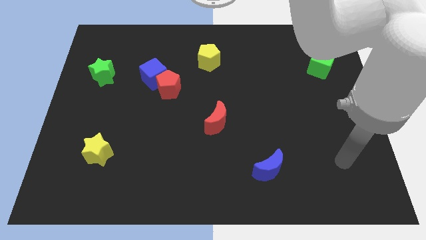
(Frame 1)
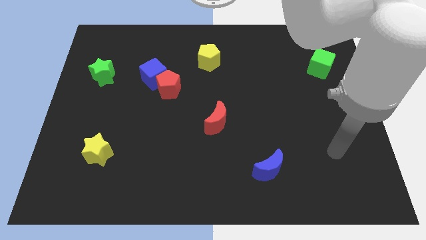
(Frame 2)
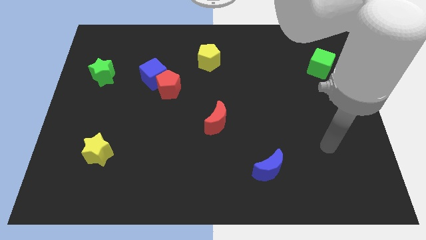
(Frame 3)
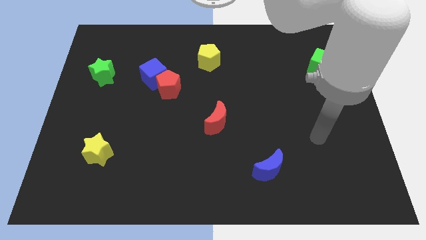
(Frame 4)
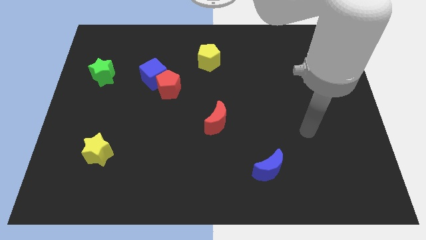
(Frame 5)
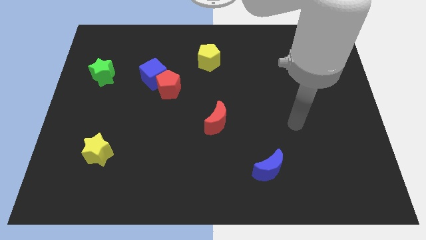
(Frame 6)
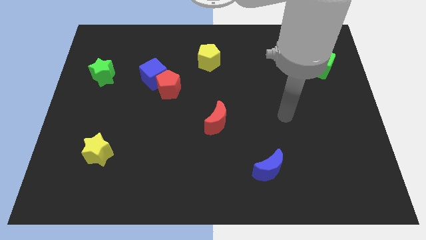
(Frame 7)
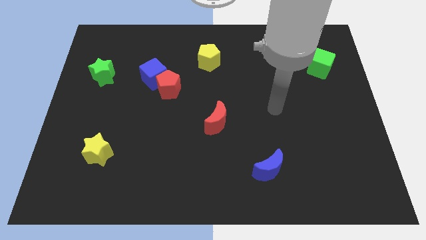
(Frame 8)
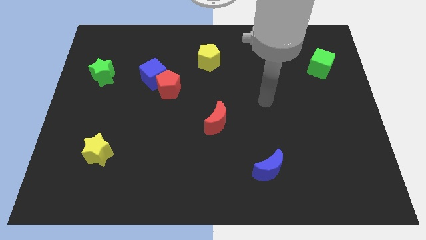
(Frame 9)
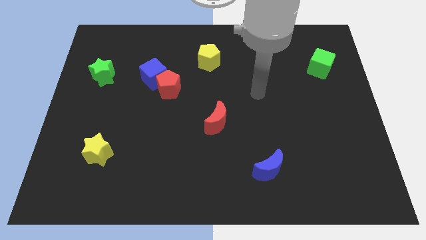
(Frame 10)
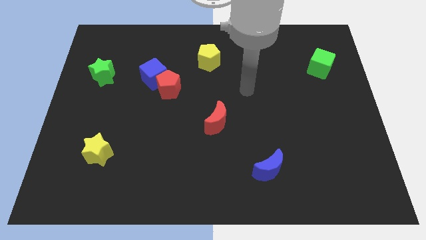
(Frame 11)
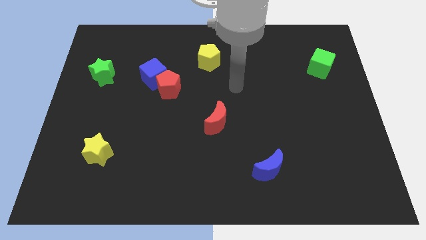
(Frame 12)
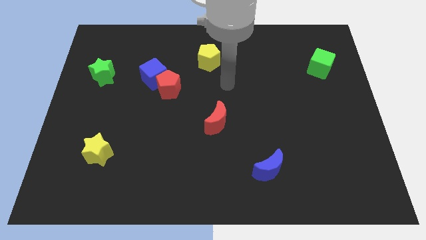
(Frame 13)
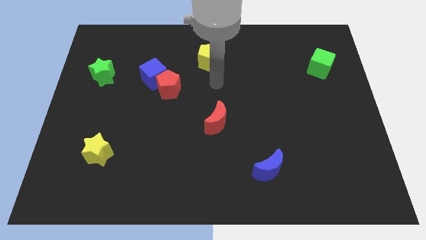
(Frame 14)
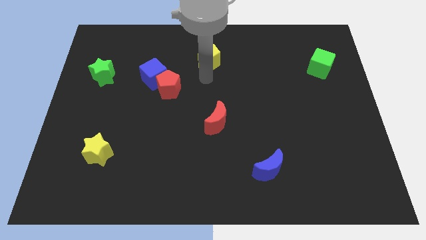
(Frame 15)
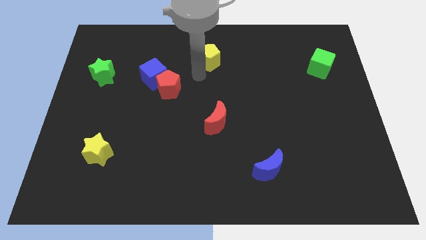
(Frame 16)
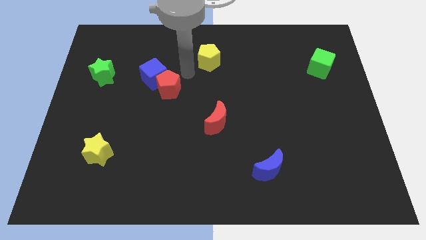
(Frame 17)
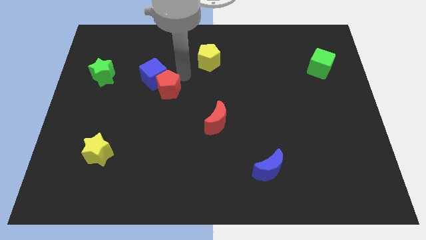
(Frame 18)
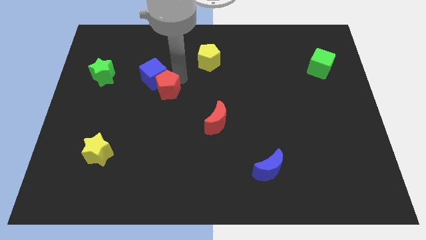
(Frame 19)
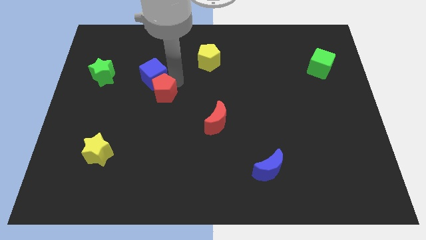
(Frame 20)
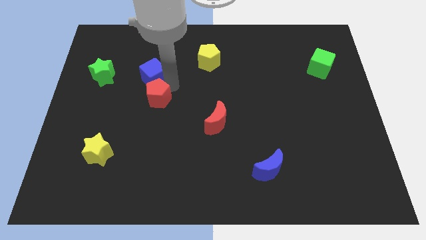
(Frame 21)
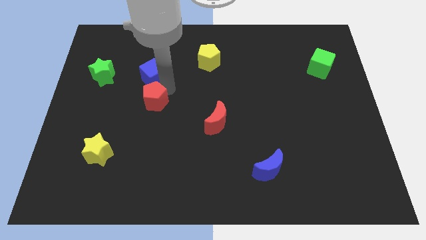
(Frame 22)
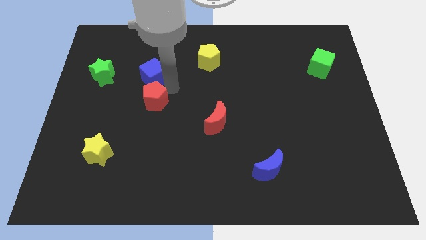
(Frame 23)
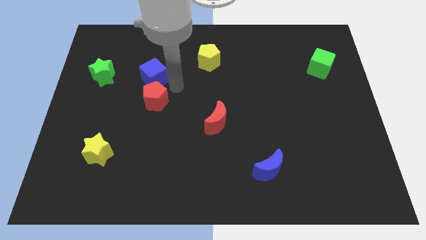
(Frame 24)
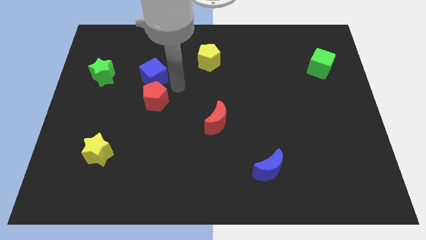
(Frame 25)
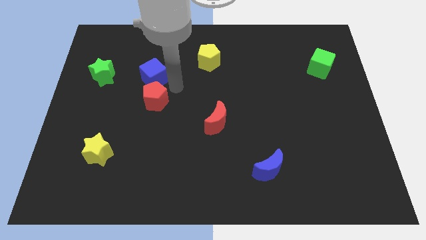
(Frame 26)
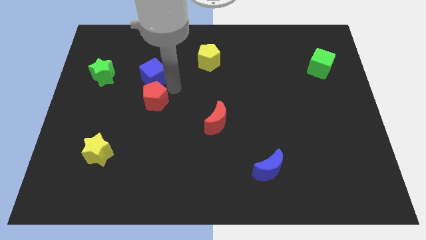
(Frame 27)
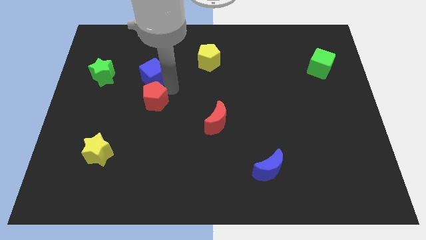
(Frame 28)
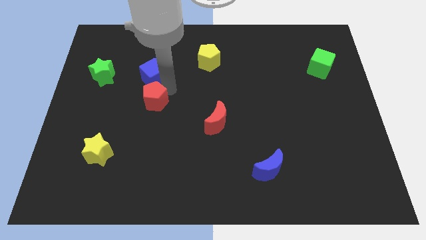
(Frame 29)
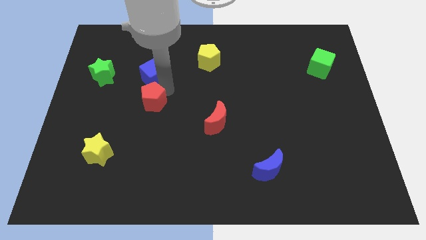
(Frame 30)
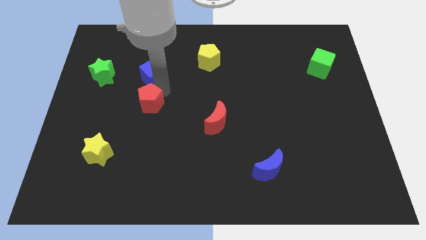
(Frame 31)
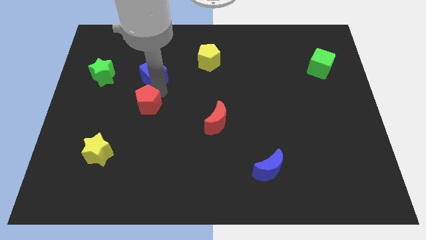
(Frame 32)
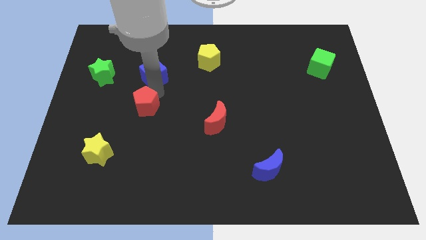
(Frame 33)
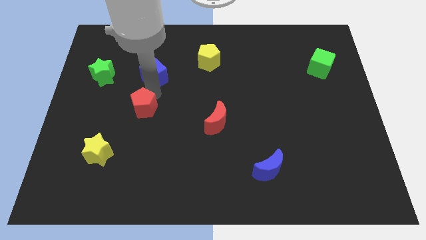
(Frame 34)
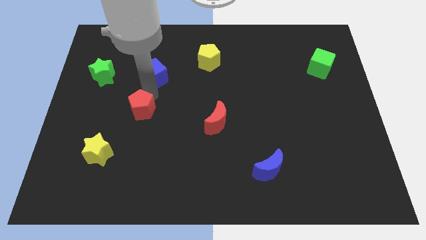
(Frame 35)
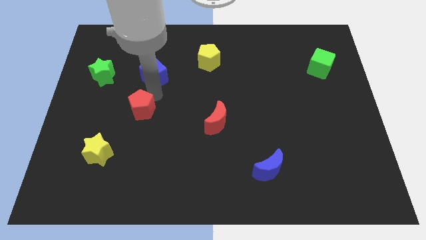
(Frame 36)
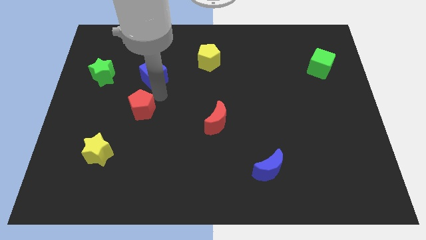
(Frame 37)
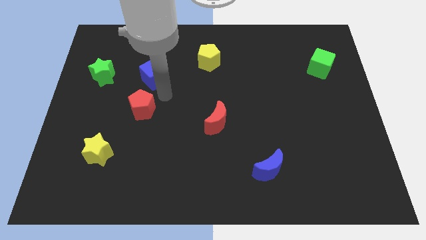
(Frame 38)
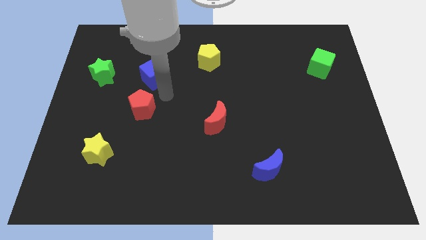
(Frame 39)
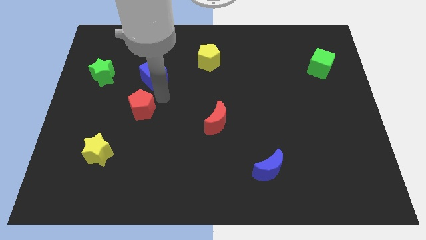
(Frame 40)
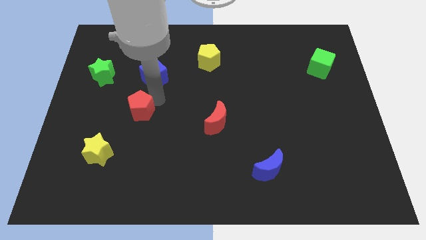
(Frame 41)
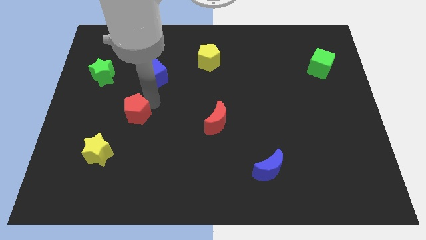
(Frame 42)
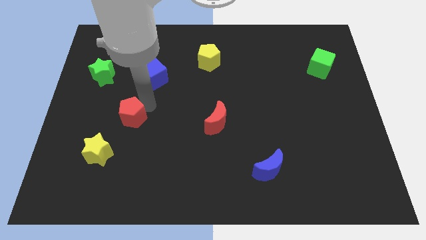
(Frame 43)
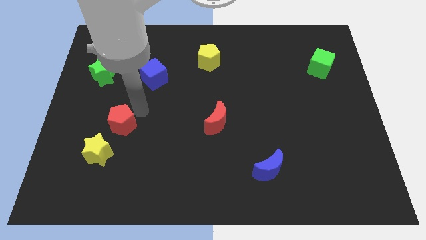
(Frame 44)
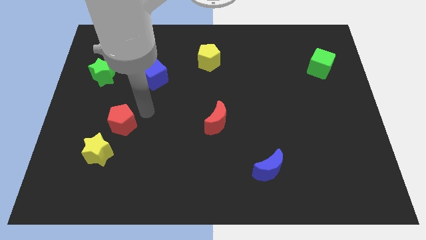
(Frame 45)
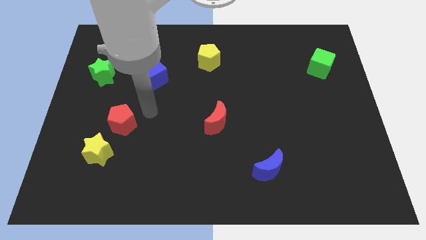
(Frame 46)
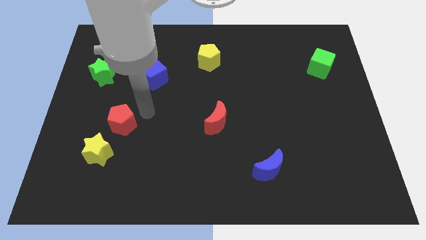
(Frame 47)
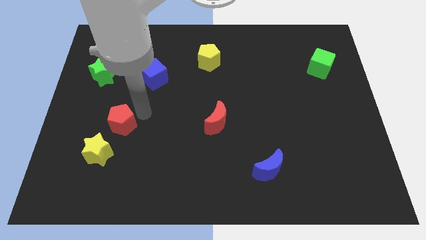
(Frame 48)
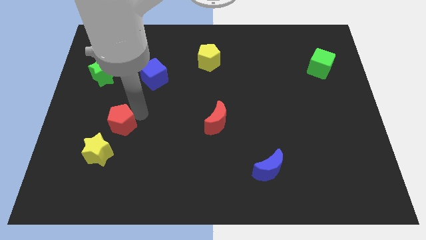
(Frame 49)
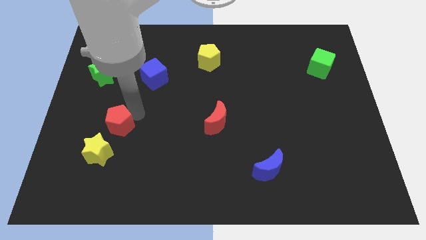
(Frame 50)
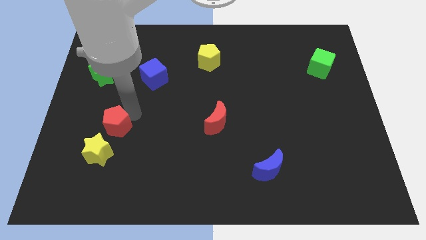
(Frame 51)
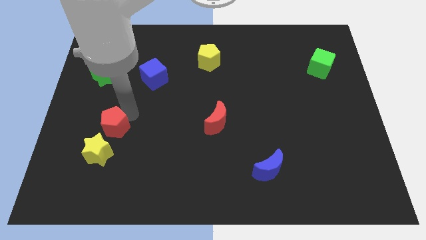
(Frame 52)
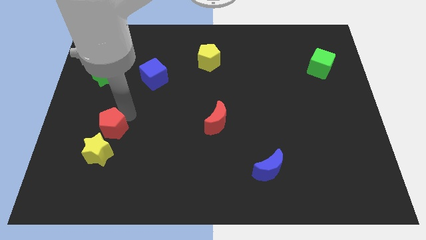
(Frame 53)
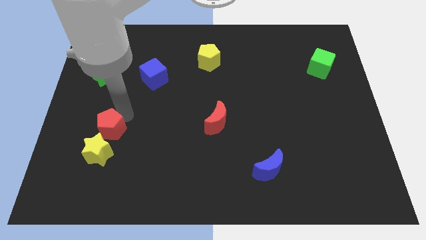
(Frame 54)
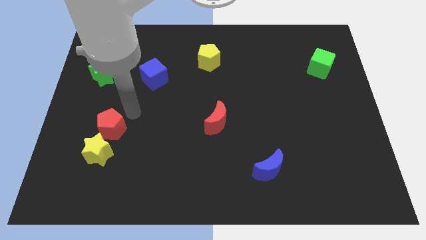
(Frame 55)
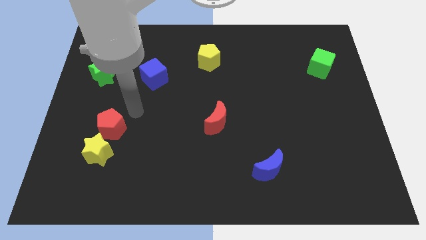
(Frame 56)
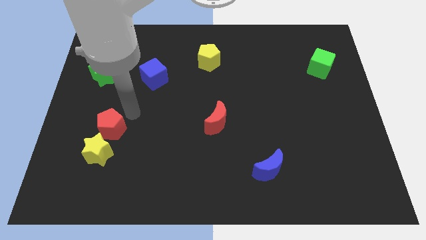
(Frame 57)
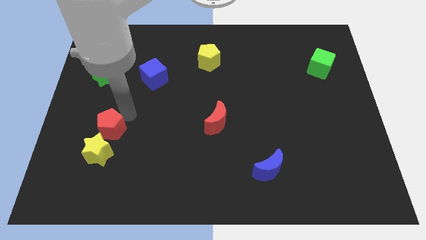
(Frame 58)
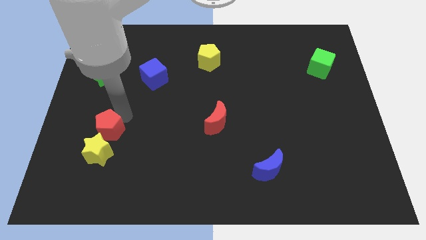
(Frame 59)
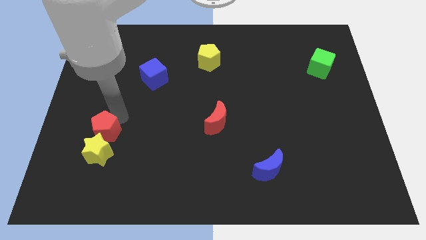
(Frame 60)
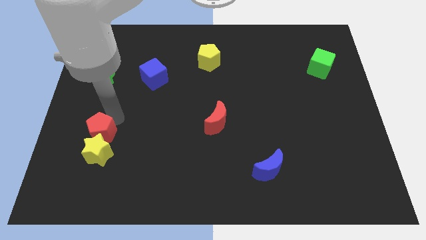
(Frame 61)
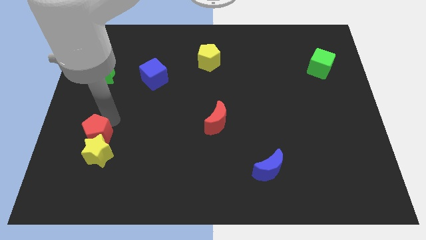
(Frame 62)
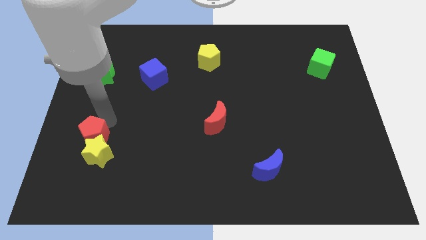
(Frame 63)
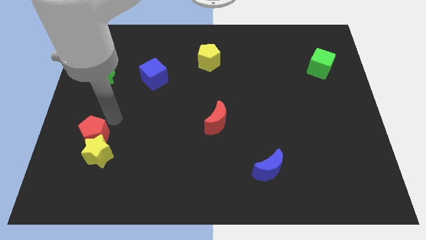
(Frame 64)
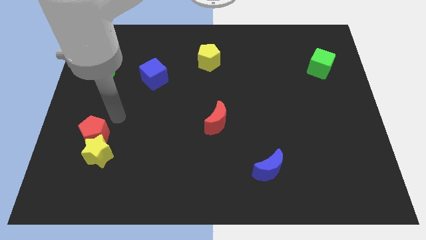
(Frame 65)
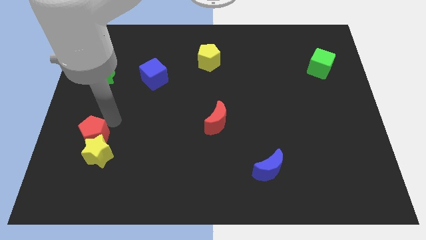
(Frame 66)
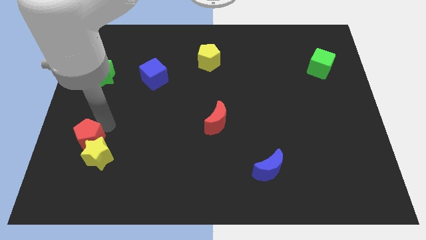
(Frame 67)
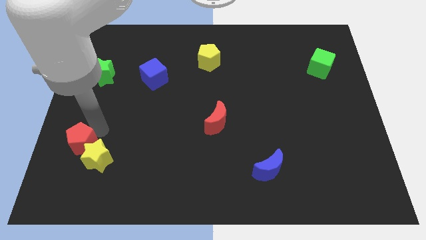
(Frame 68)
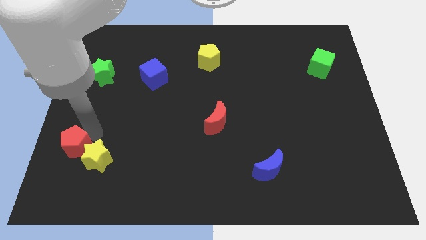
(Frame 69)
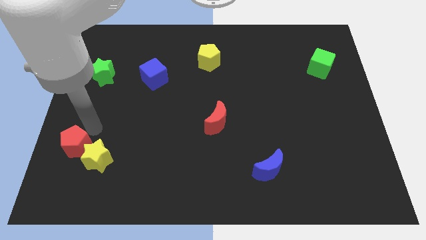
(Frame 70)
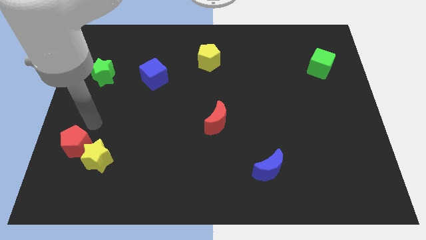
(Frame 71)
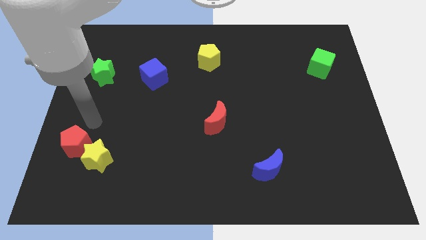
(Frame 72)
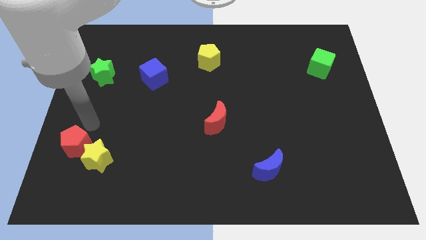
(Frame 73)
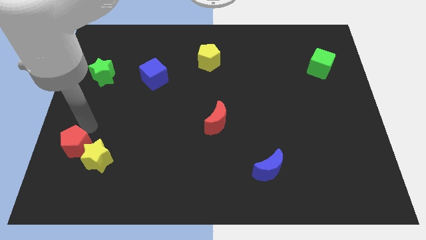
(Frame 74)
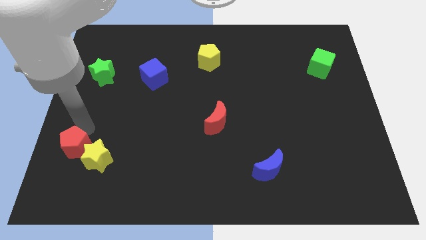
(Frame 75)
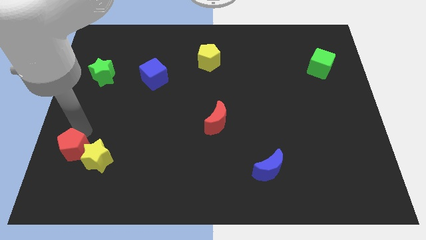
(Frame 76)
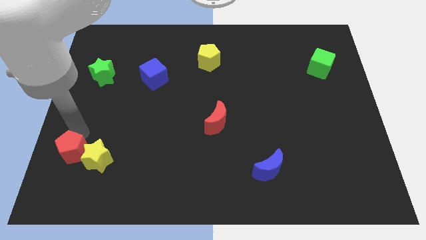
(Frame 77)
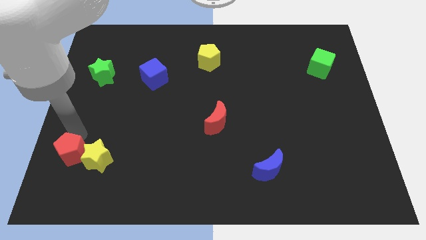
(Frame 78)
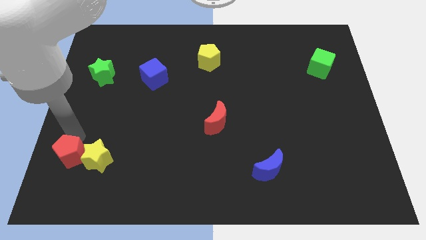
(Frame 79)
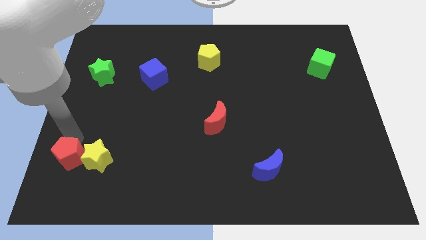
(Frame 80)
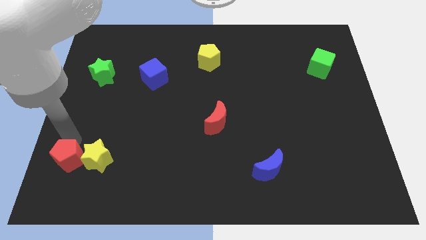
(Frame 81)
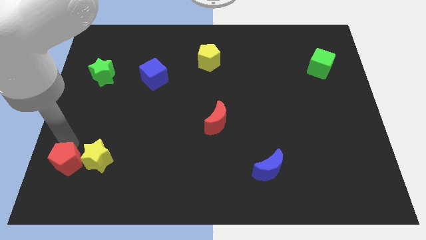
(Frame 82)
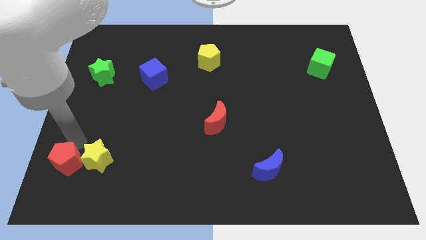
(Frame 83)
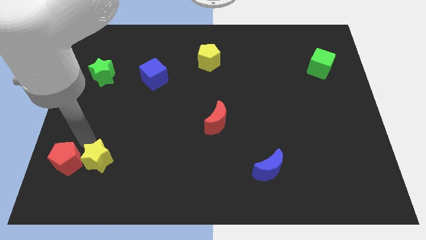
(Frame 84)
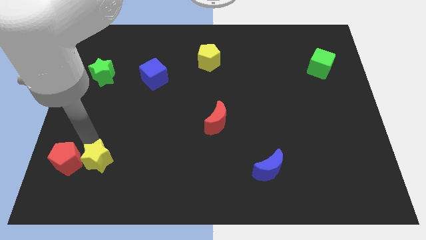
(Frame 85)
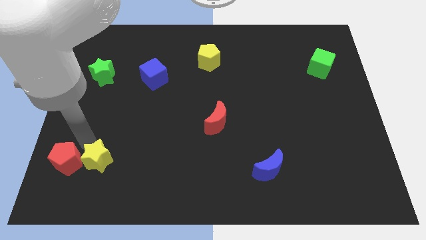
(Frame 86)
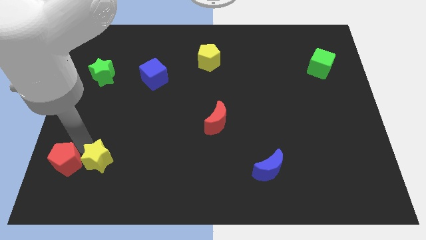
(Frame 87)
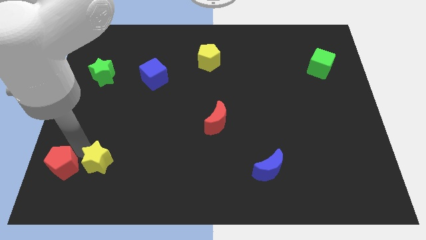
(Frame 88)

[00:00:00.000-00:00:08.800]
slide the red pentagon to the lower left corner
